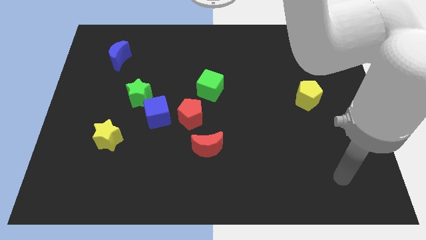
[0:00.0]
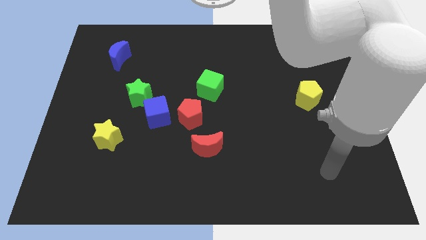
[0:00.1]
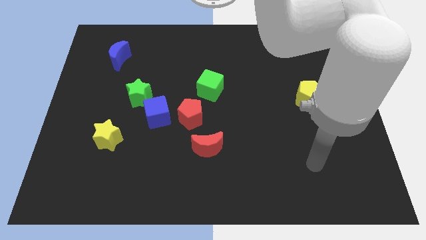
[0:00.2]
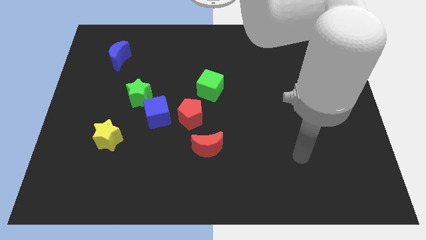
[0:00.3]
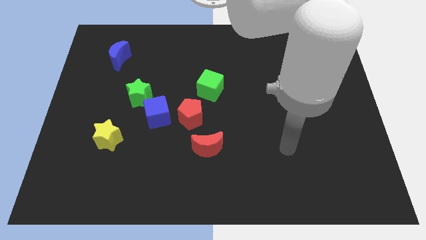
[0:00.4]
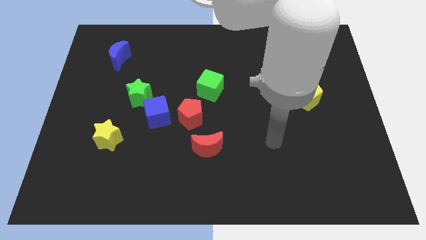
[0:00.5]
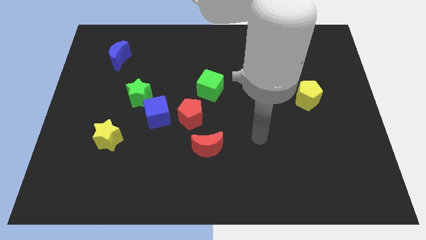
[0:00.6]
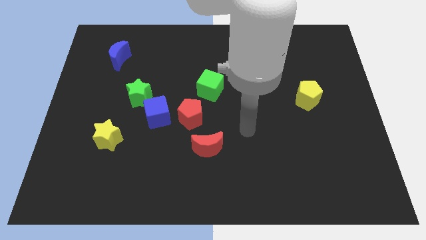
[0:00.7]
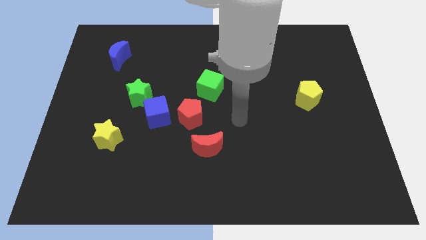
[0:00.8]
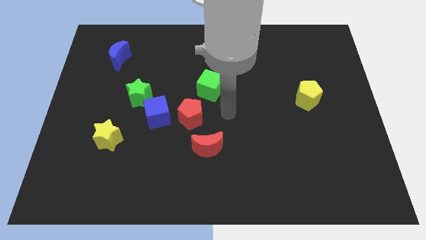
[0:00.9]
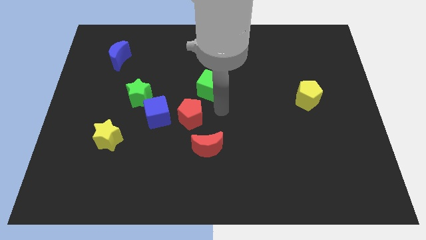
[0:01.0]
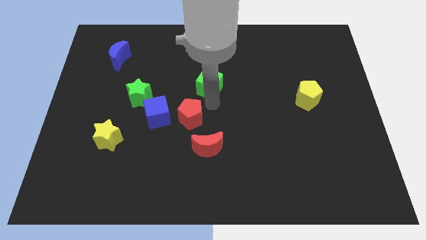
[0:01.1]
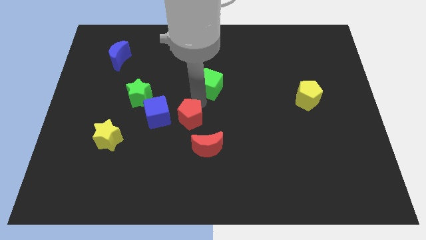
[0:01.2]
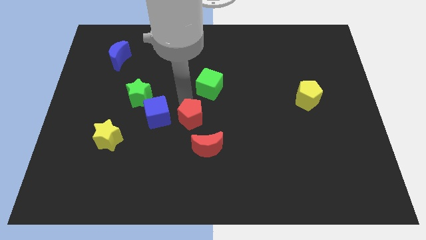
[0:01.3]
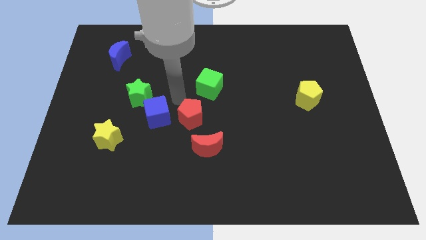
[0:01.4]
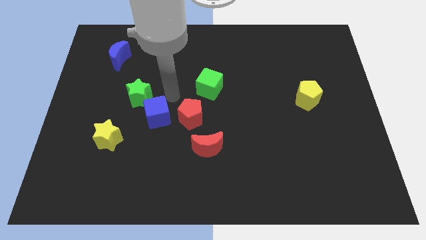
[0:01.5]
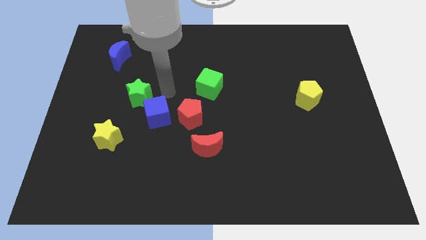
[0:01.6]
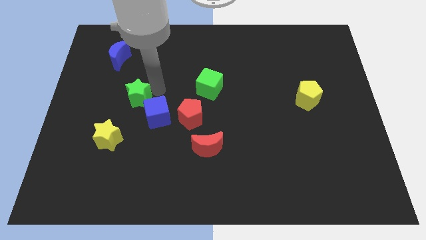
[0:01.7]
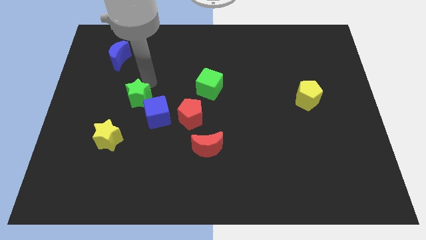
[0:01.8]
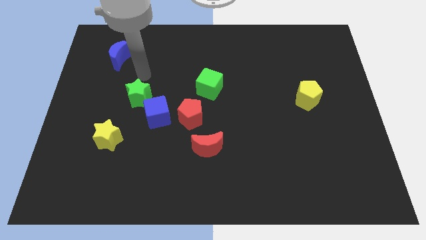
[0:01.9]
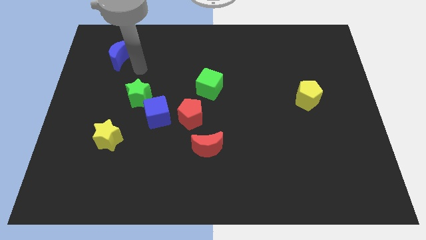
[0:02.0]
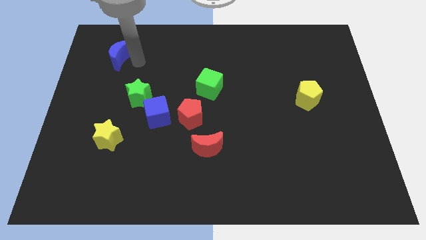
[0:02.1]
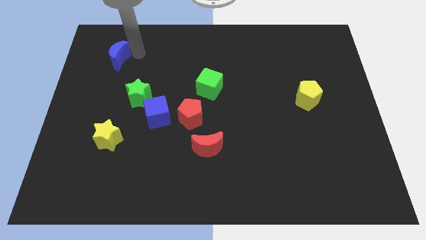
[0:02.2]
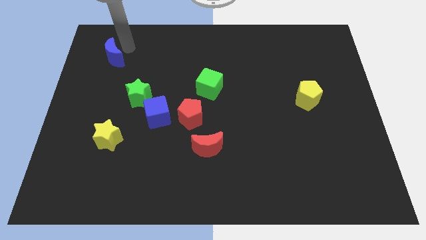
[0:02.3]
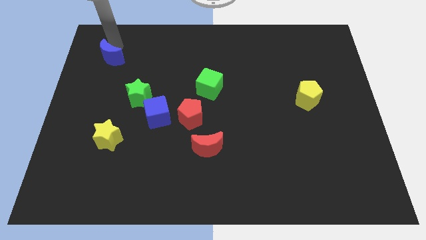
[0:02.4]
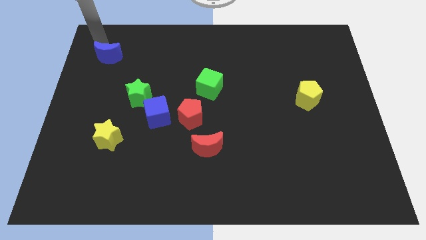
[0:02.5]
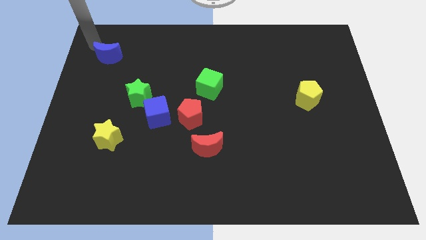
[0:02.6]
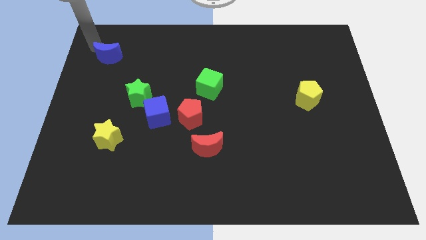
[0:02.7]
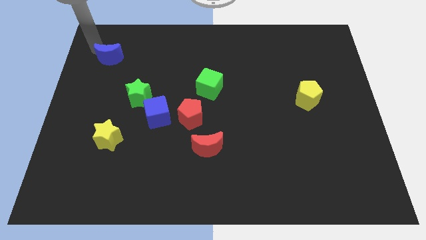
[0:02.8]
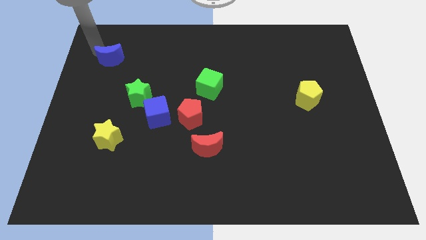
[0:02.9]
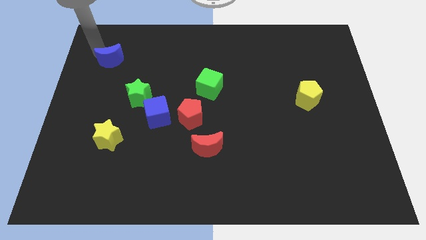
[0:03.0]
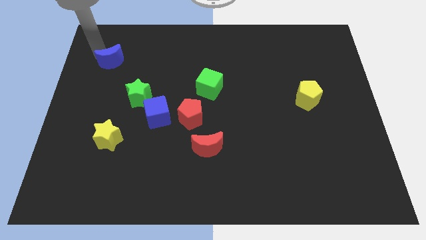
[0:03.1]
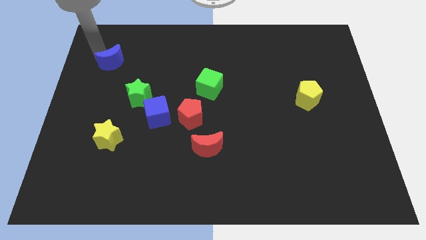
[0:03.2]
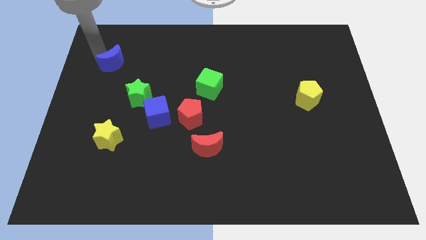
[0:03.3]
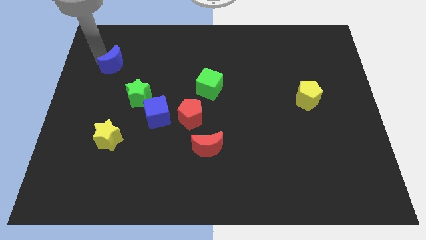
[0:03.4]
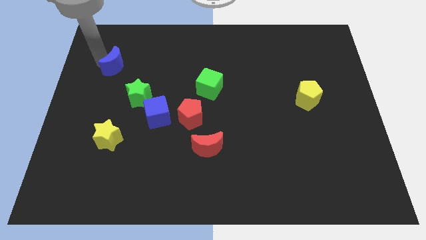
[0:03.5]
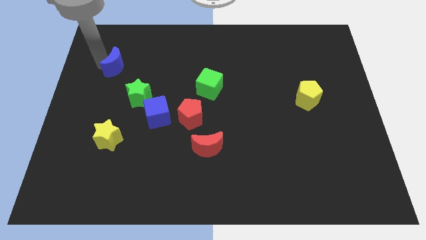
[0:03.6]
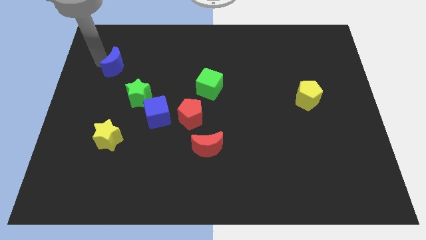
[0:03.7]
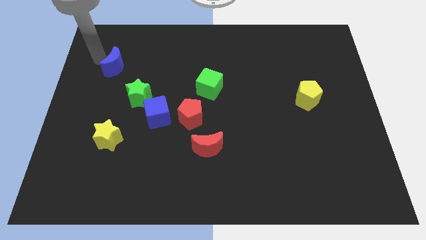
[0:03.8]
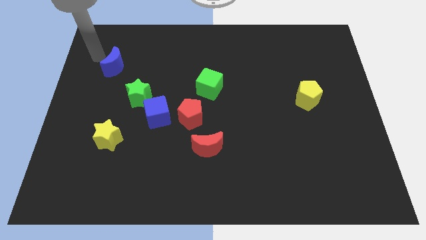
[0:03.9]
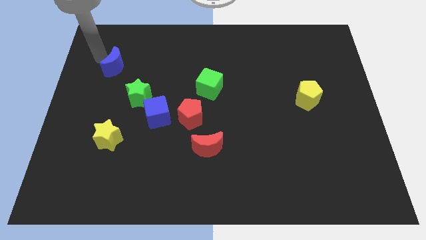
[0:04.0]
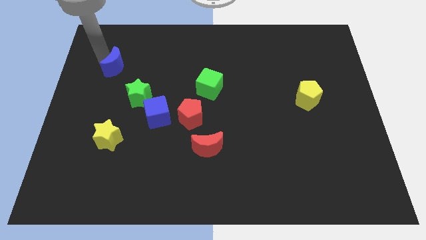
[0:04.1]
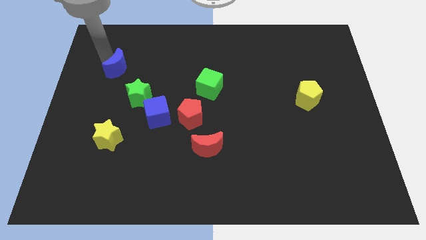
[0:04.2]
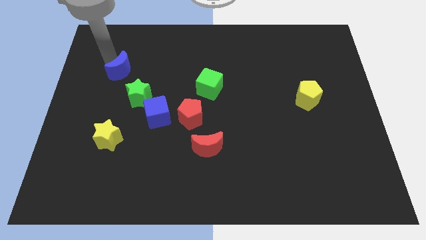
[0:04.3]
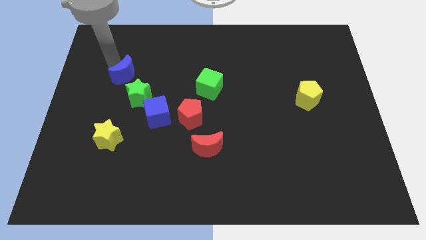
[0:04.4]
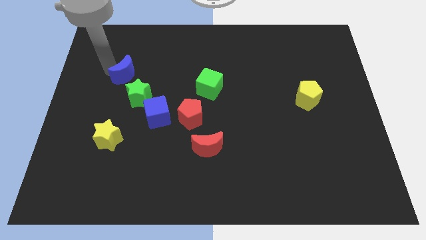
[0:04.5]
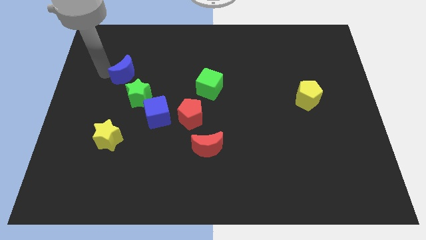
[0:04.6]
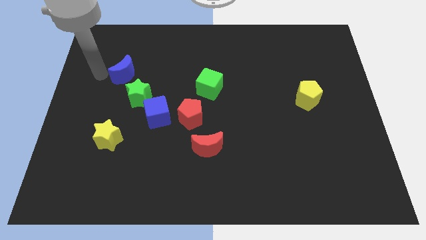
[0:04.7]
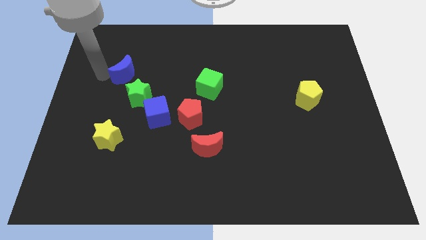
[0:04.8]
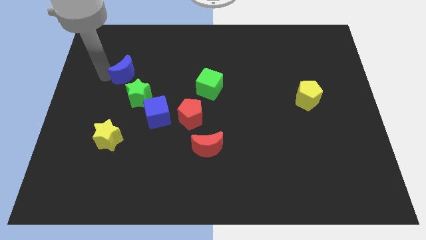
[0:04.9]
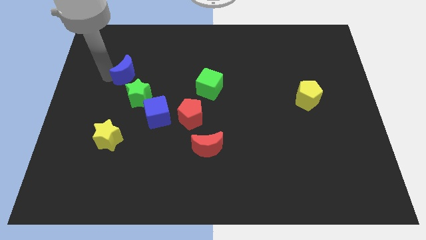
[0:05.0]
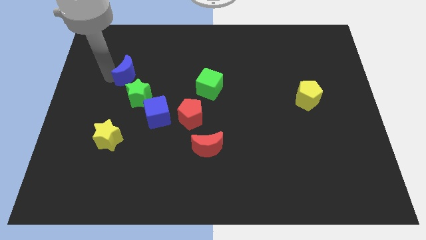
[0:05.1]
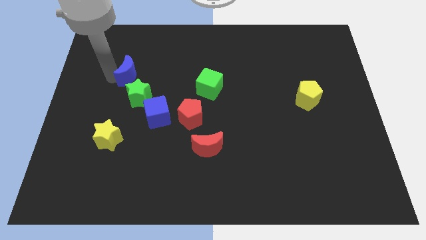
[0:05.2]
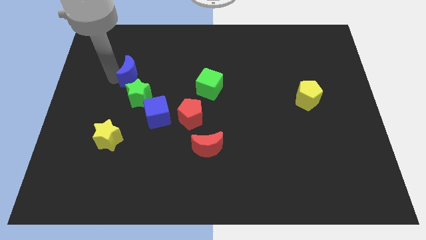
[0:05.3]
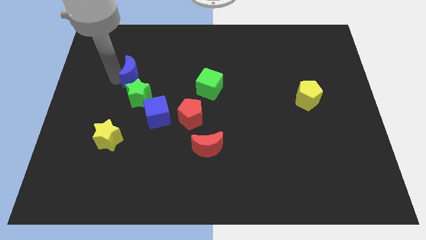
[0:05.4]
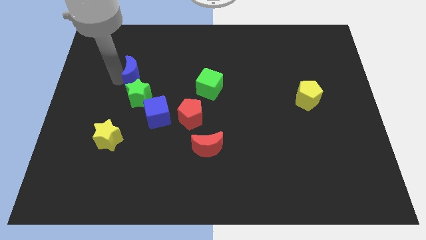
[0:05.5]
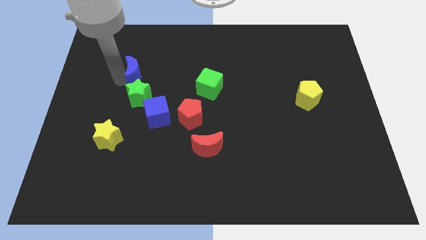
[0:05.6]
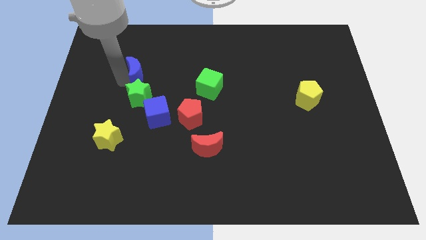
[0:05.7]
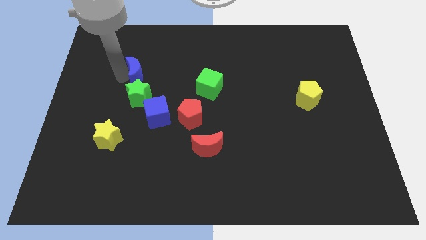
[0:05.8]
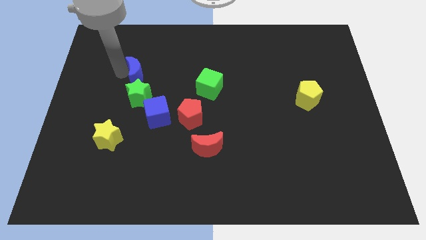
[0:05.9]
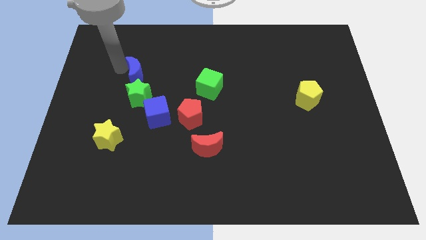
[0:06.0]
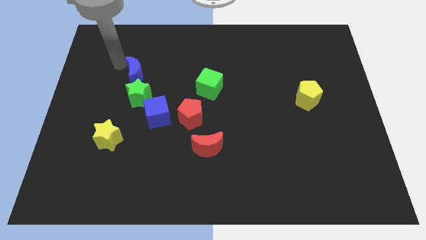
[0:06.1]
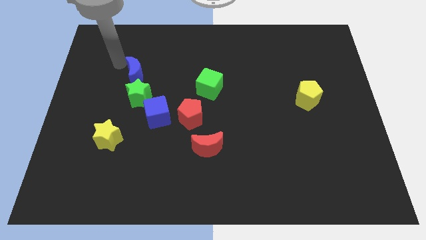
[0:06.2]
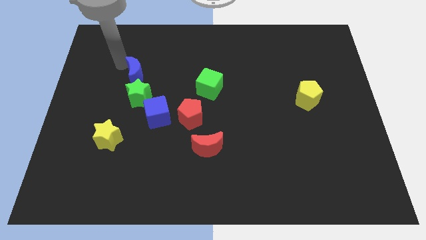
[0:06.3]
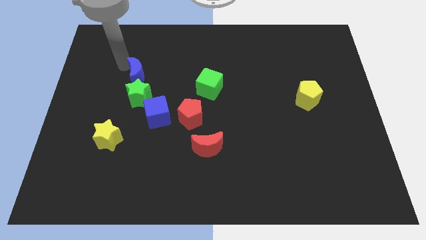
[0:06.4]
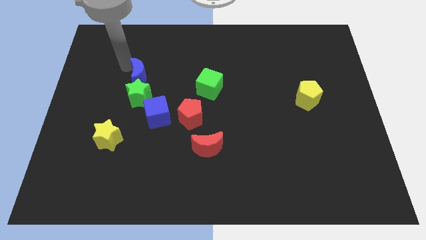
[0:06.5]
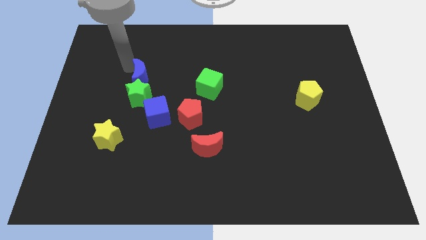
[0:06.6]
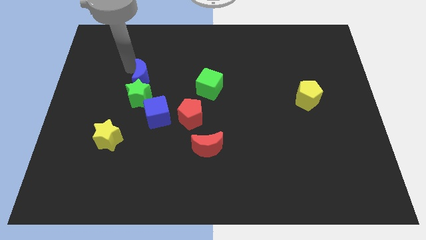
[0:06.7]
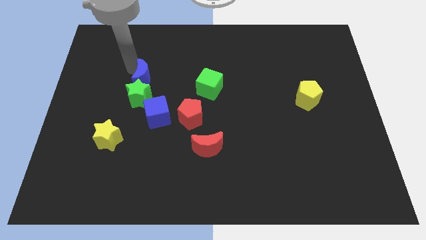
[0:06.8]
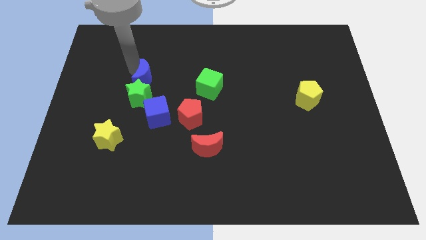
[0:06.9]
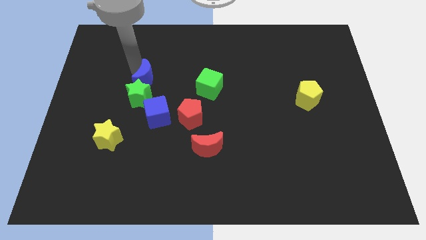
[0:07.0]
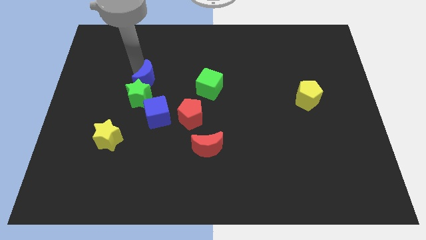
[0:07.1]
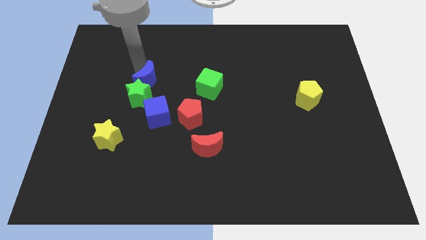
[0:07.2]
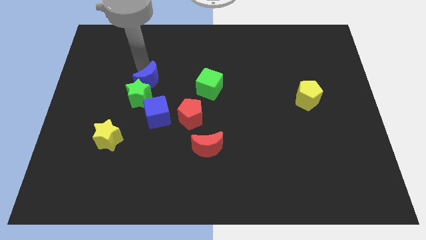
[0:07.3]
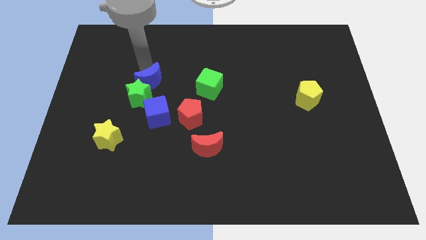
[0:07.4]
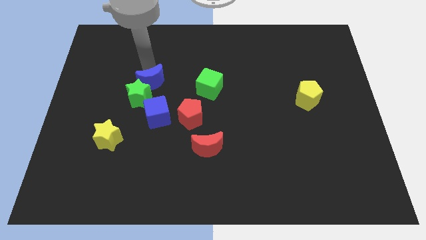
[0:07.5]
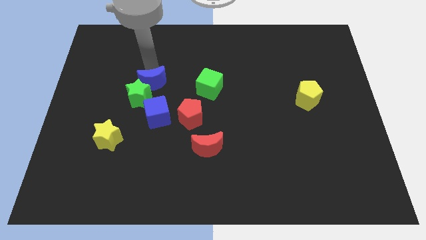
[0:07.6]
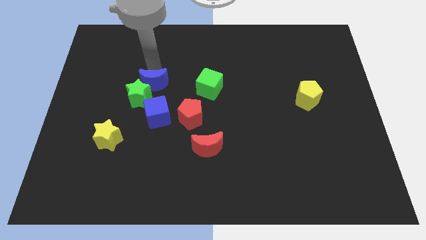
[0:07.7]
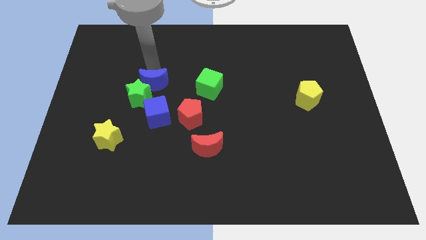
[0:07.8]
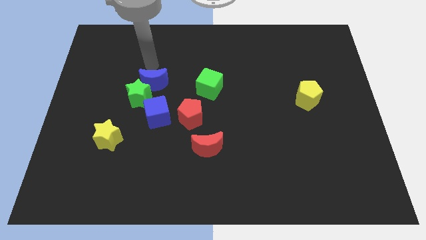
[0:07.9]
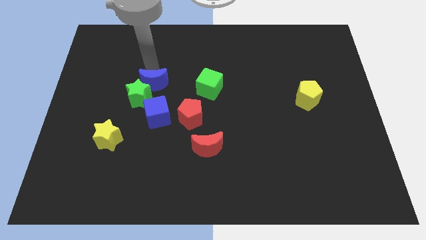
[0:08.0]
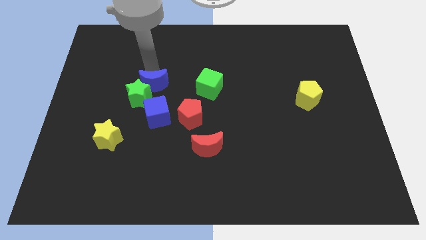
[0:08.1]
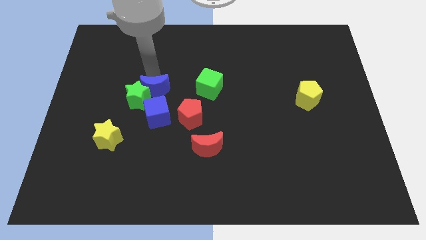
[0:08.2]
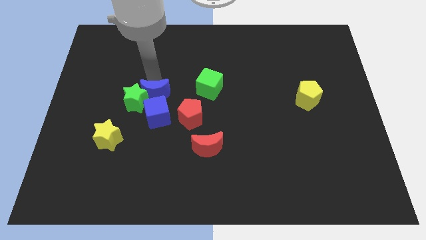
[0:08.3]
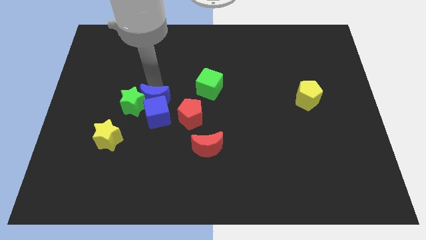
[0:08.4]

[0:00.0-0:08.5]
slide the blue moon towards the blue cube
